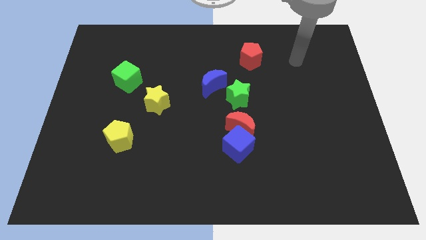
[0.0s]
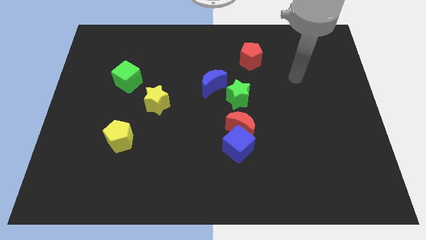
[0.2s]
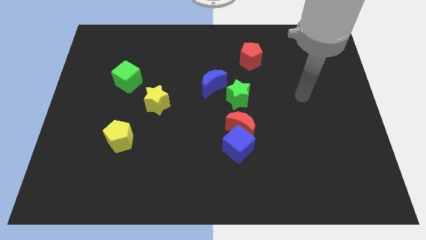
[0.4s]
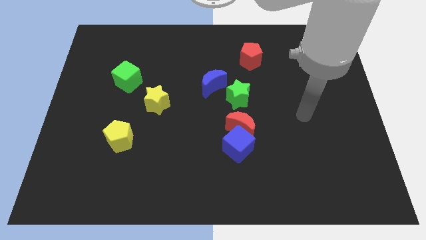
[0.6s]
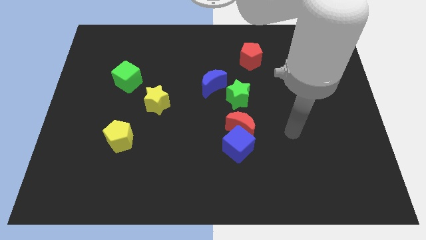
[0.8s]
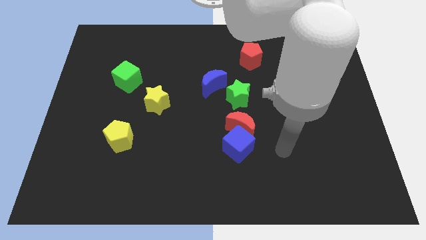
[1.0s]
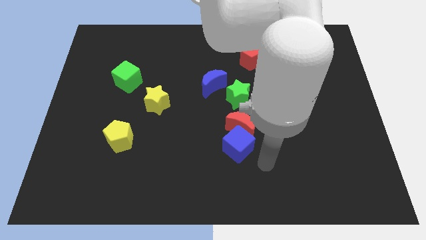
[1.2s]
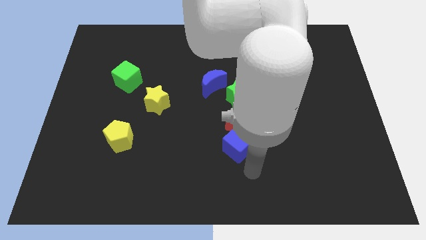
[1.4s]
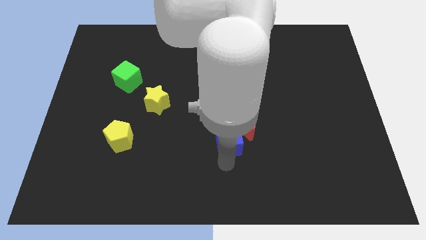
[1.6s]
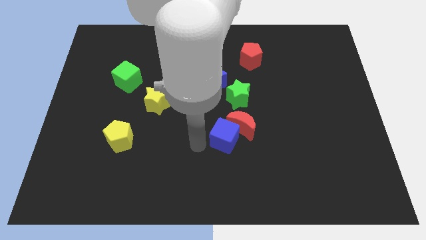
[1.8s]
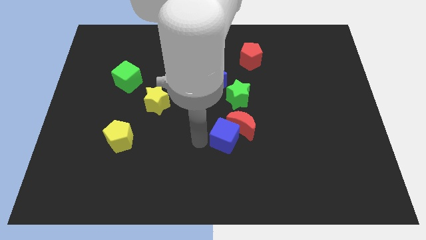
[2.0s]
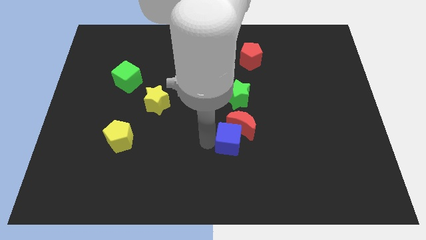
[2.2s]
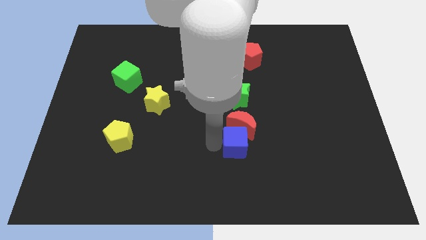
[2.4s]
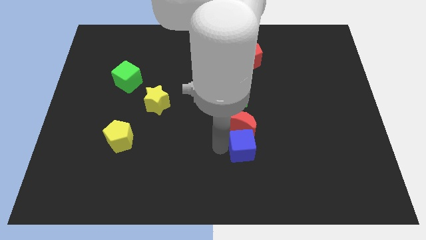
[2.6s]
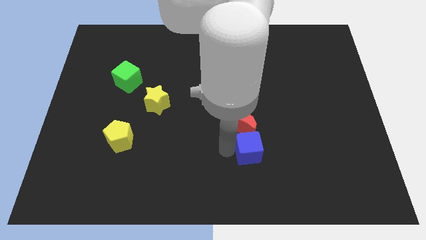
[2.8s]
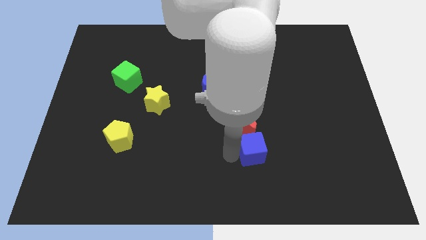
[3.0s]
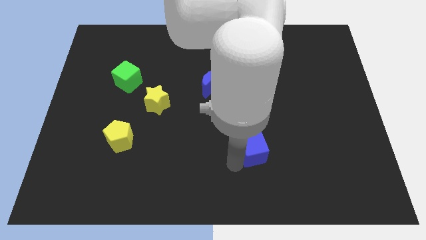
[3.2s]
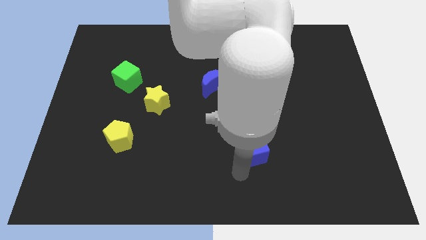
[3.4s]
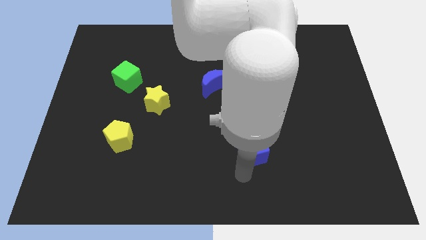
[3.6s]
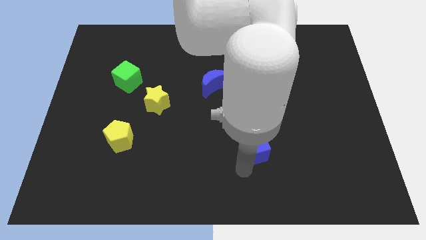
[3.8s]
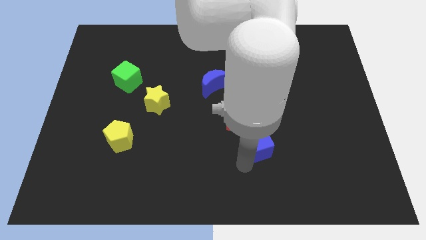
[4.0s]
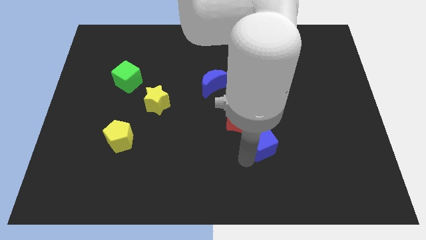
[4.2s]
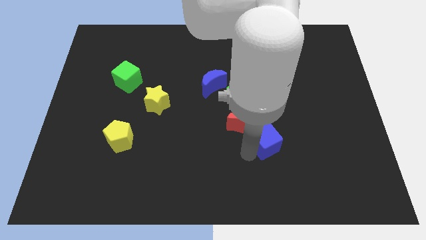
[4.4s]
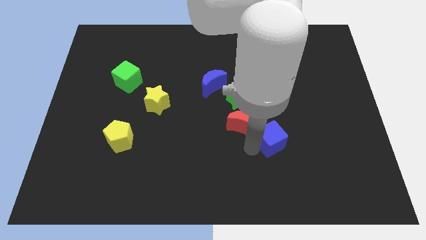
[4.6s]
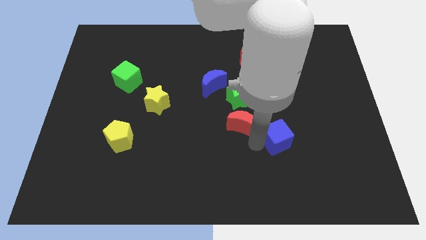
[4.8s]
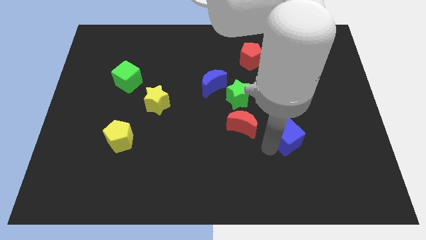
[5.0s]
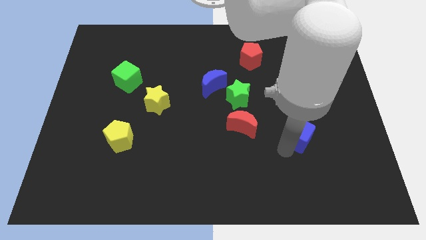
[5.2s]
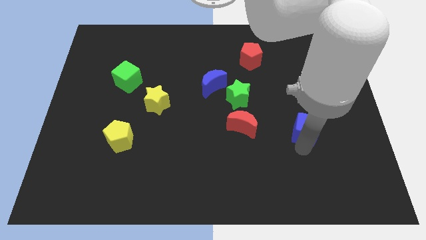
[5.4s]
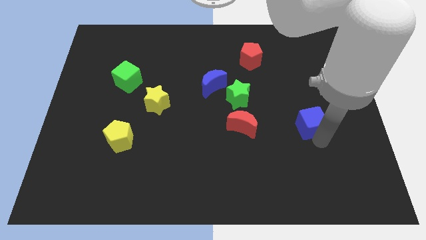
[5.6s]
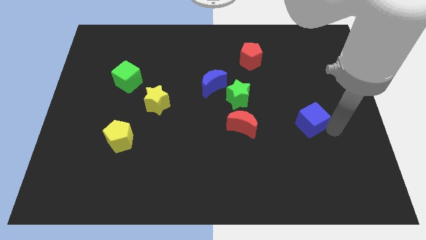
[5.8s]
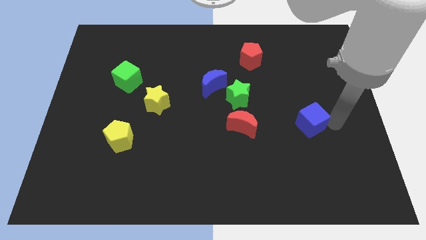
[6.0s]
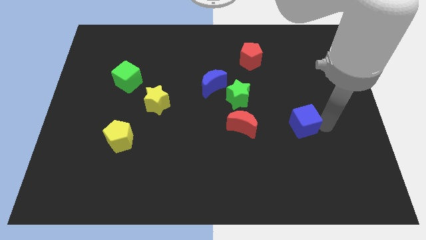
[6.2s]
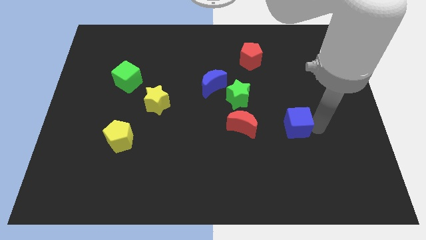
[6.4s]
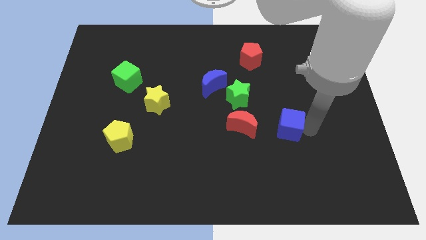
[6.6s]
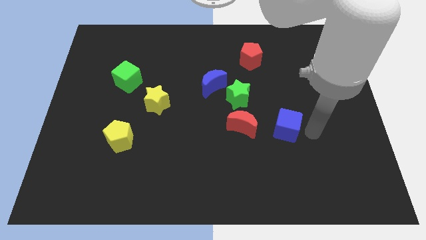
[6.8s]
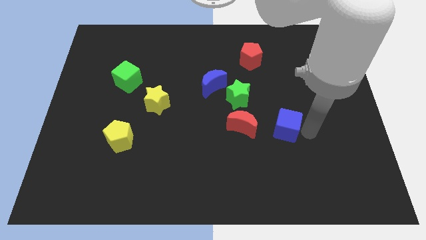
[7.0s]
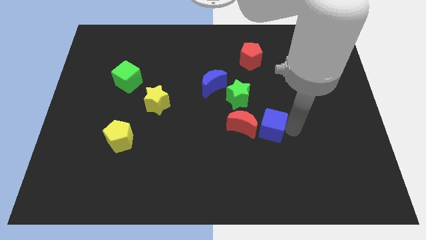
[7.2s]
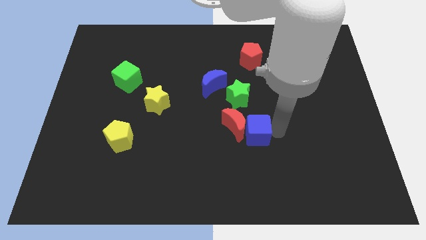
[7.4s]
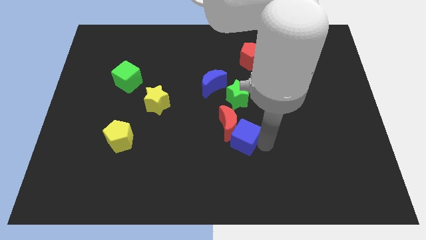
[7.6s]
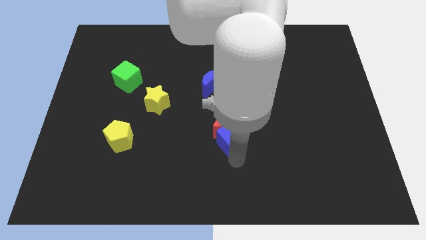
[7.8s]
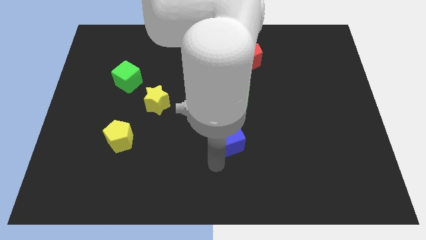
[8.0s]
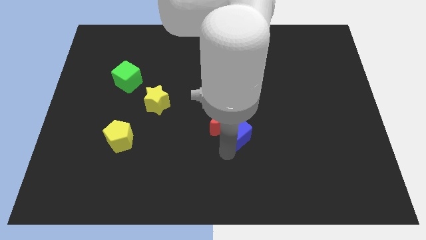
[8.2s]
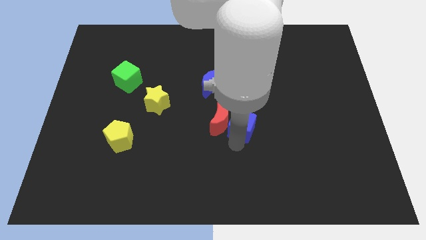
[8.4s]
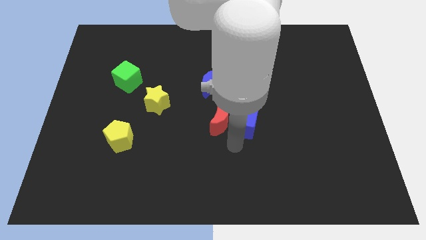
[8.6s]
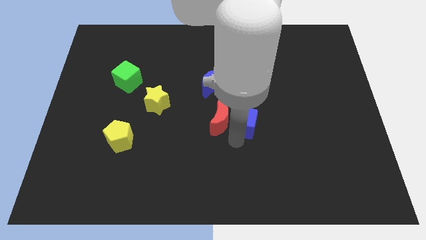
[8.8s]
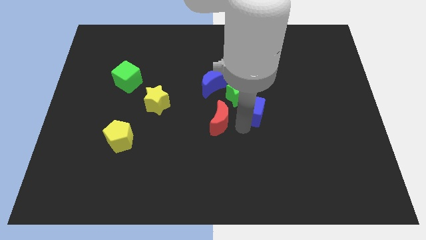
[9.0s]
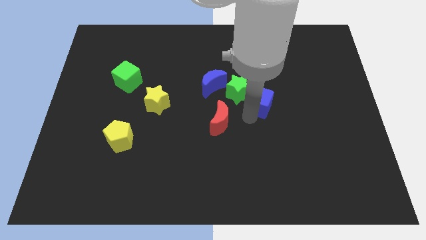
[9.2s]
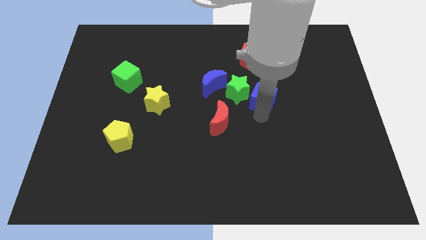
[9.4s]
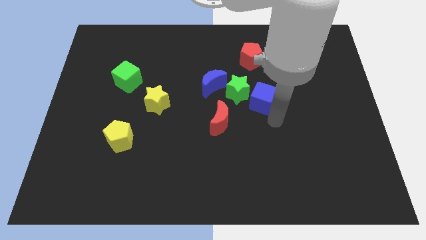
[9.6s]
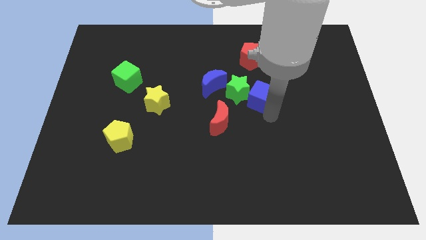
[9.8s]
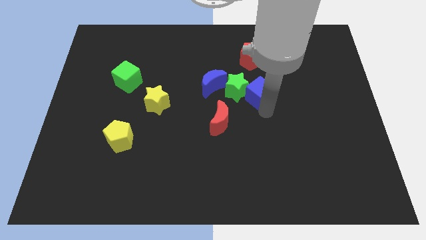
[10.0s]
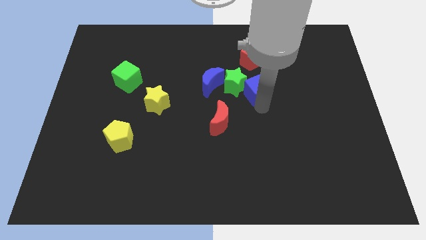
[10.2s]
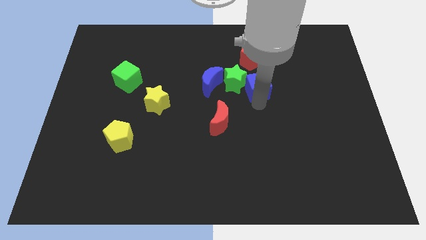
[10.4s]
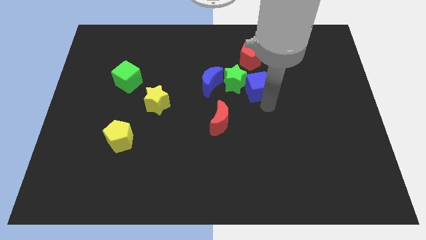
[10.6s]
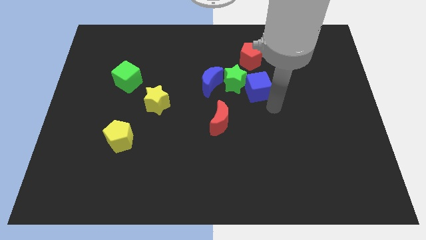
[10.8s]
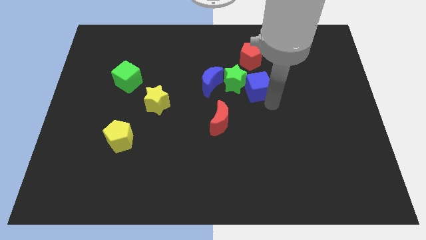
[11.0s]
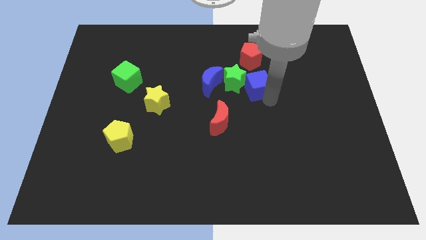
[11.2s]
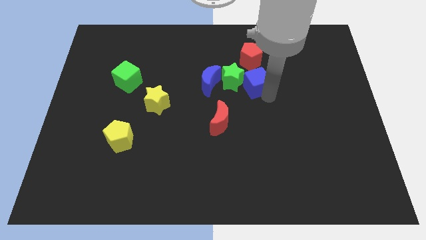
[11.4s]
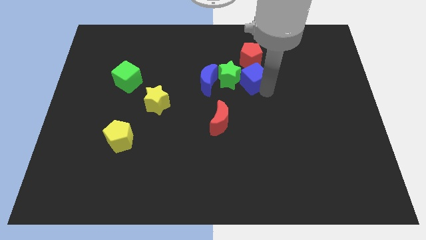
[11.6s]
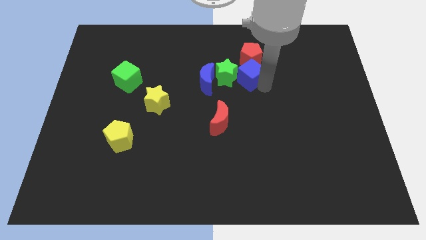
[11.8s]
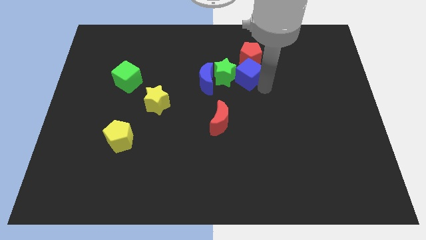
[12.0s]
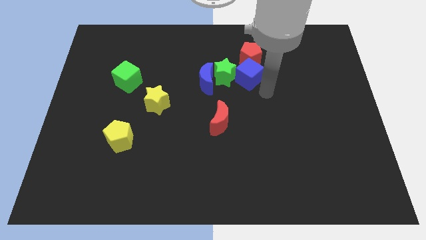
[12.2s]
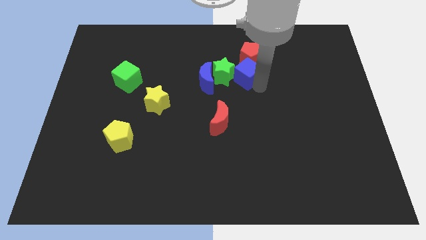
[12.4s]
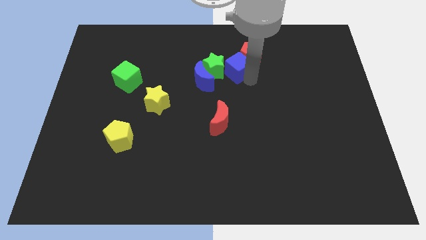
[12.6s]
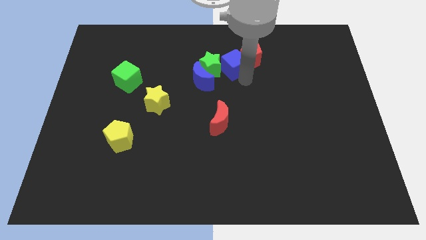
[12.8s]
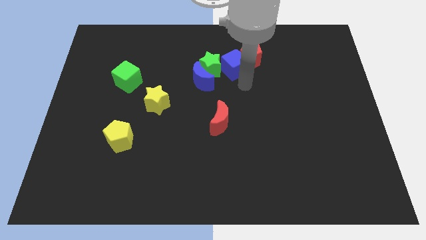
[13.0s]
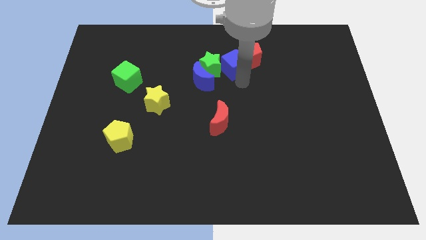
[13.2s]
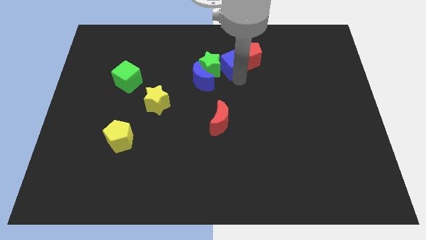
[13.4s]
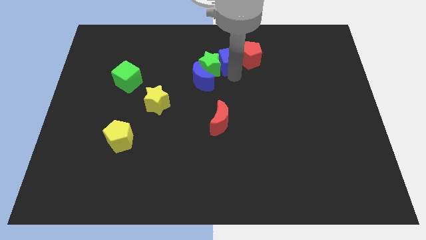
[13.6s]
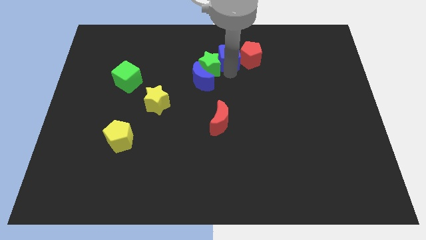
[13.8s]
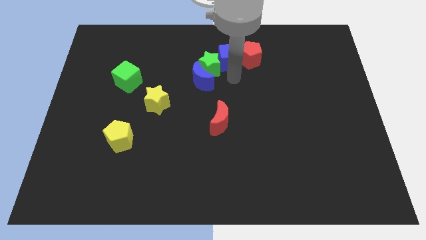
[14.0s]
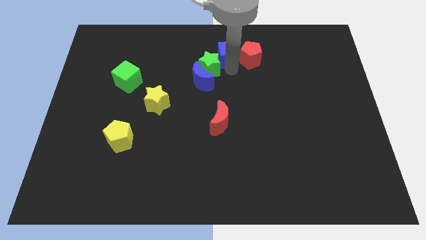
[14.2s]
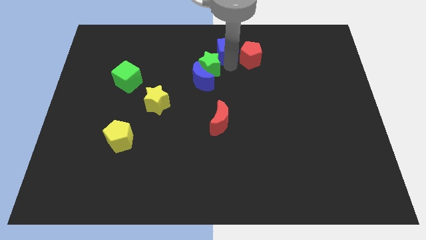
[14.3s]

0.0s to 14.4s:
push the blue cube to the top
